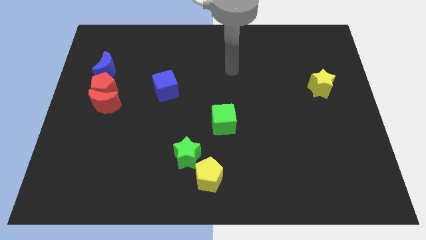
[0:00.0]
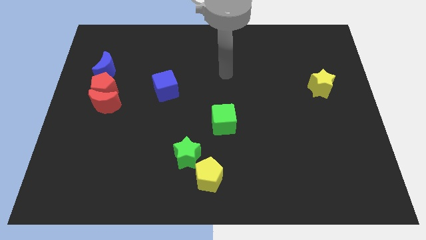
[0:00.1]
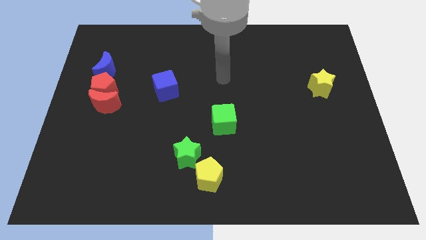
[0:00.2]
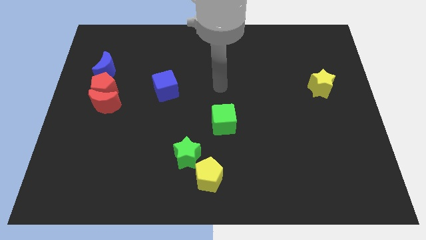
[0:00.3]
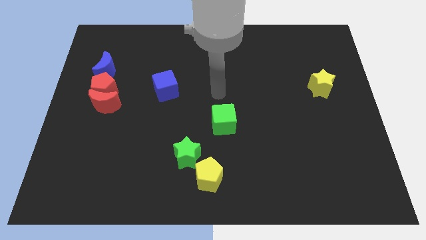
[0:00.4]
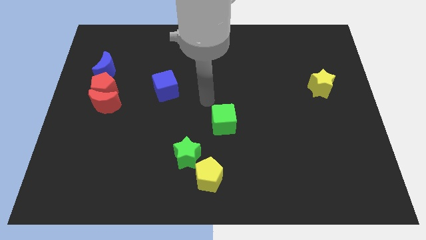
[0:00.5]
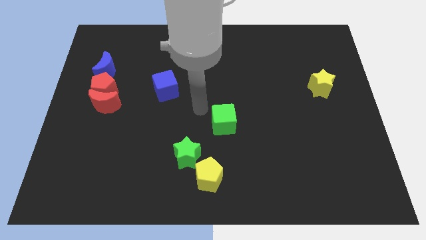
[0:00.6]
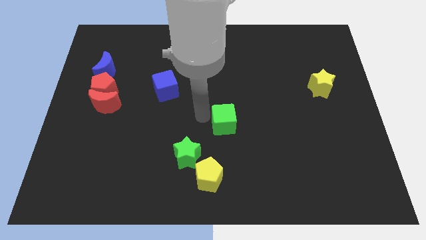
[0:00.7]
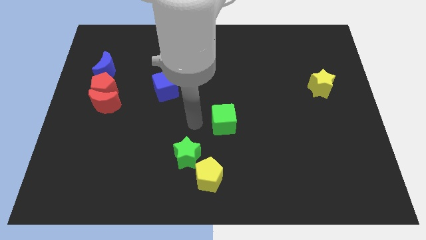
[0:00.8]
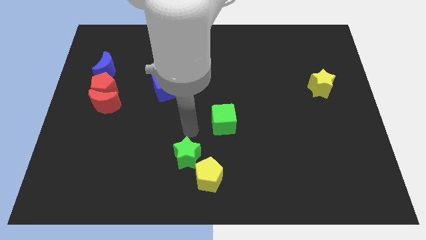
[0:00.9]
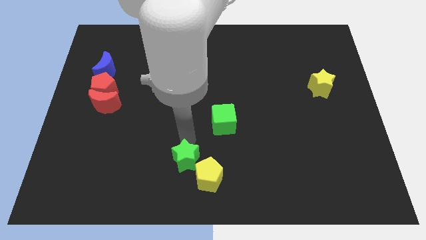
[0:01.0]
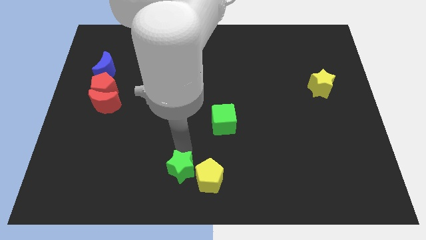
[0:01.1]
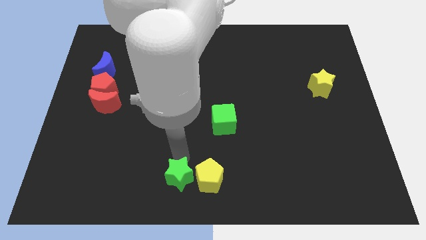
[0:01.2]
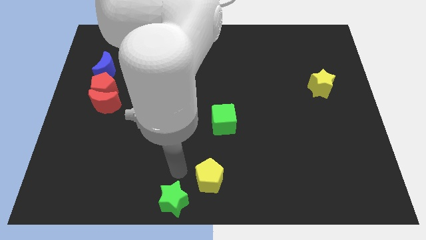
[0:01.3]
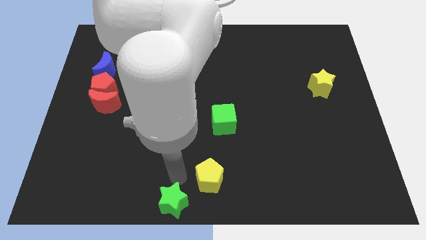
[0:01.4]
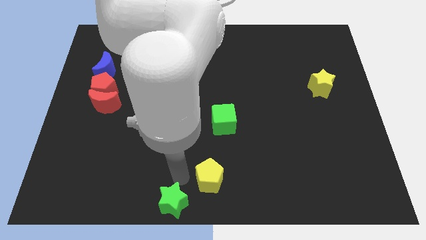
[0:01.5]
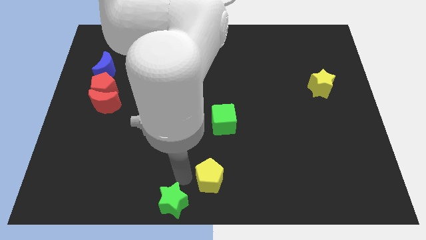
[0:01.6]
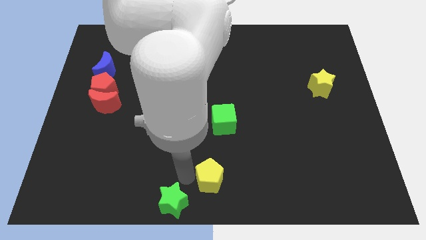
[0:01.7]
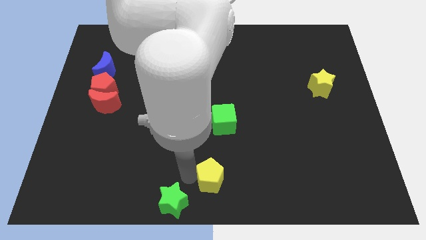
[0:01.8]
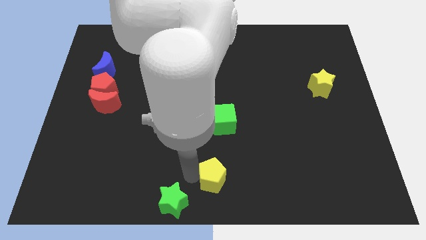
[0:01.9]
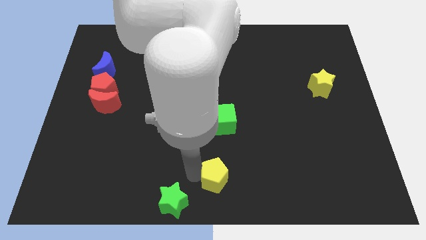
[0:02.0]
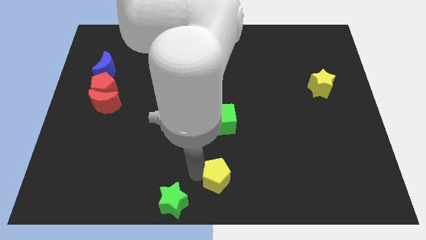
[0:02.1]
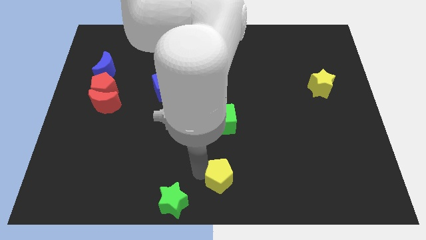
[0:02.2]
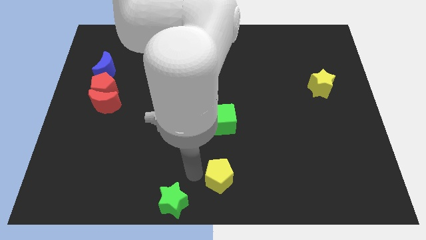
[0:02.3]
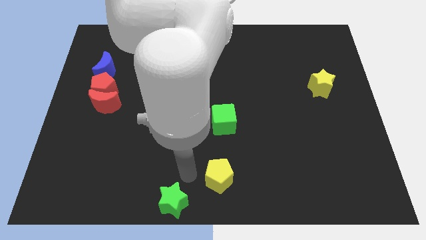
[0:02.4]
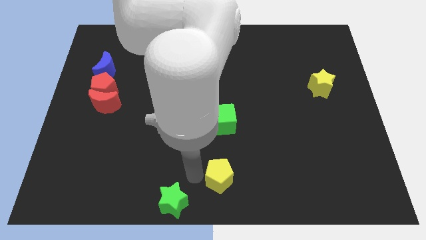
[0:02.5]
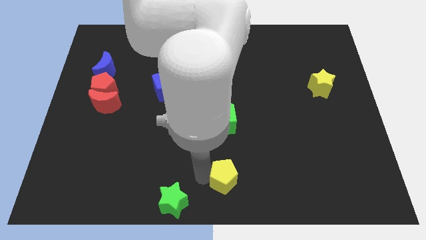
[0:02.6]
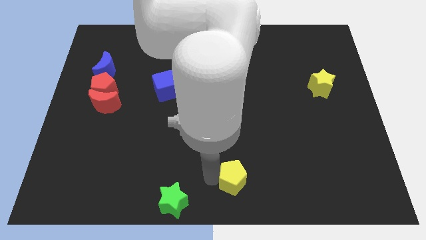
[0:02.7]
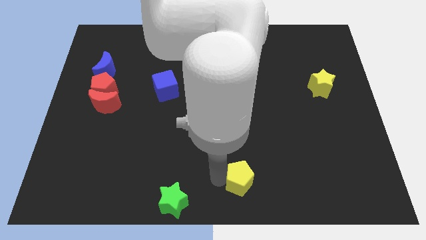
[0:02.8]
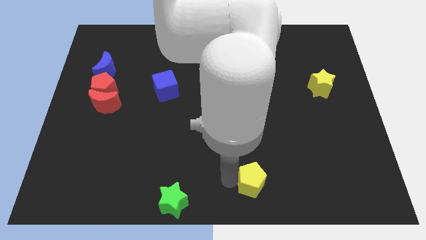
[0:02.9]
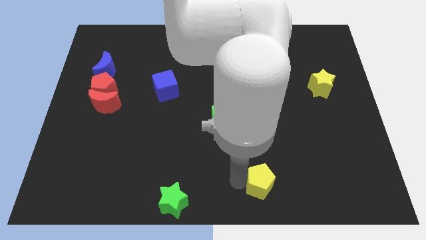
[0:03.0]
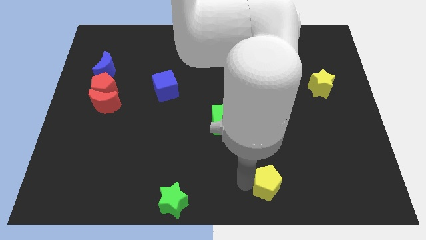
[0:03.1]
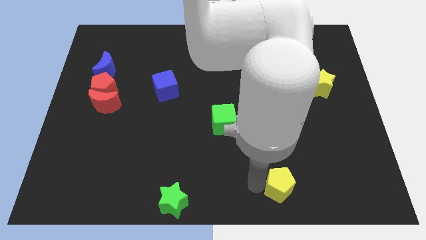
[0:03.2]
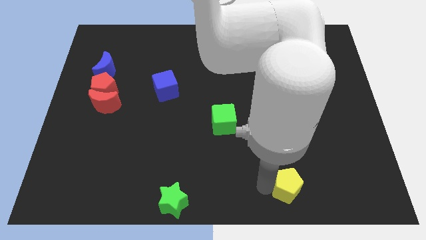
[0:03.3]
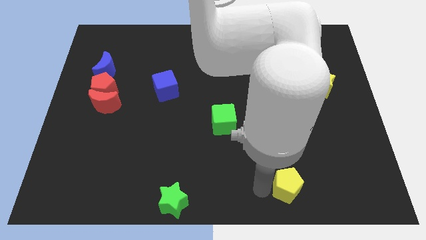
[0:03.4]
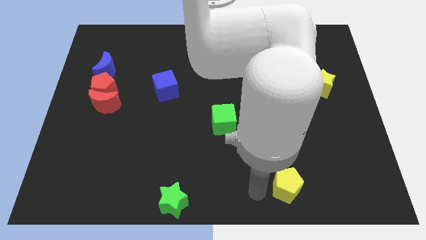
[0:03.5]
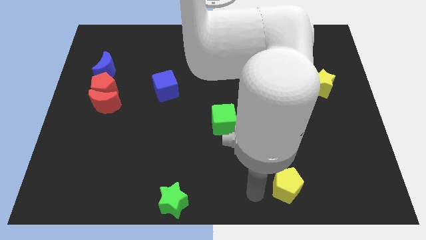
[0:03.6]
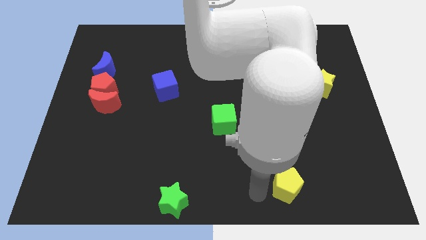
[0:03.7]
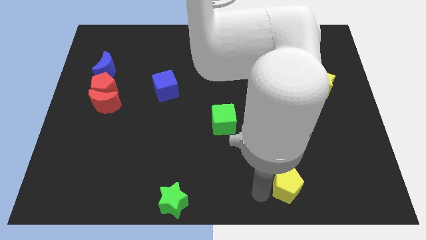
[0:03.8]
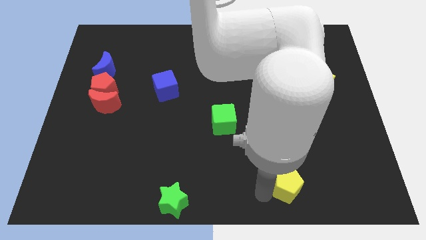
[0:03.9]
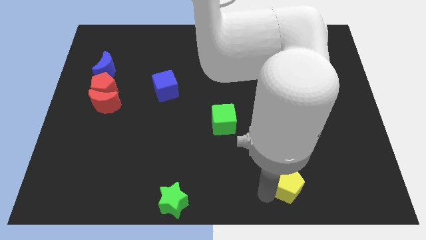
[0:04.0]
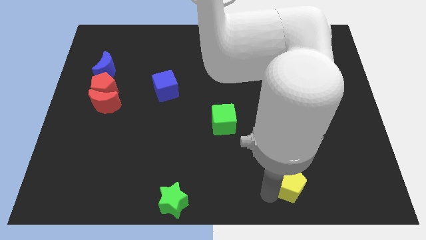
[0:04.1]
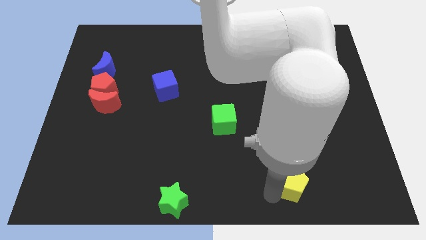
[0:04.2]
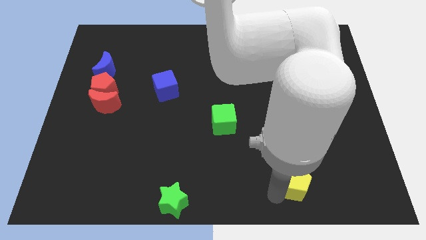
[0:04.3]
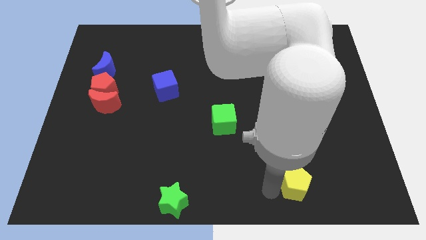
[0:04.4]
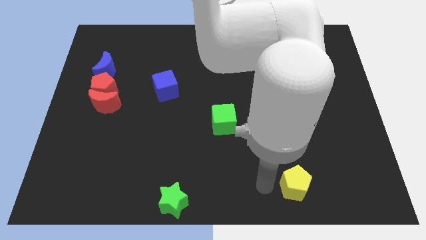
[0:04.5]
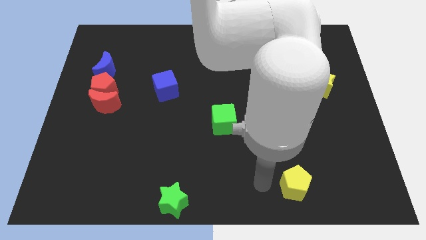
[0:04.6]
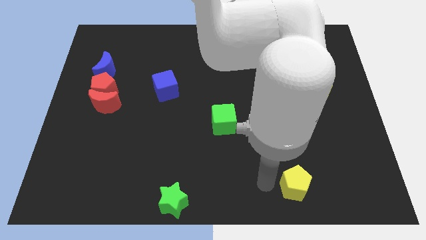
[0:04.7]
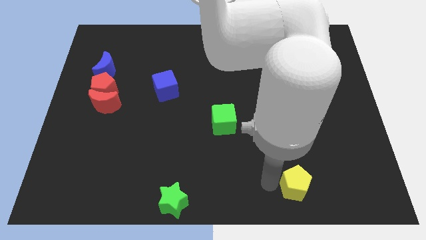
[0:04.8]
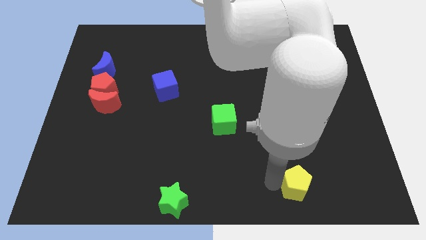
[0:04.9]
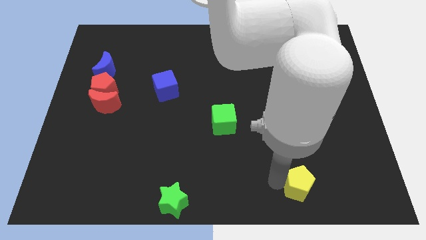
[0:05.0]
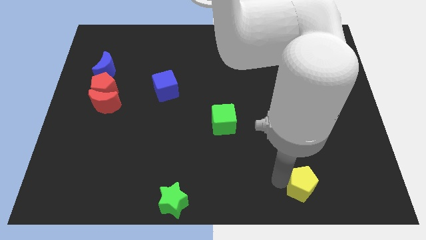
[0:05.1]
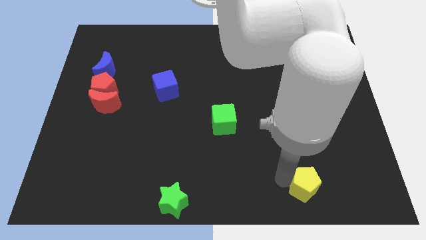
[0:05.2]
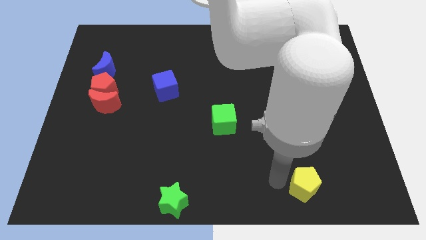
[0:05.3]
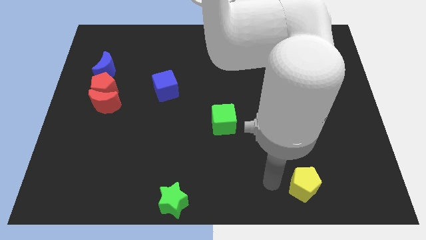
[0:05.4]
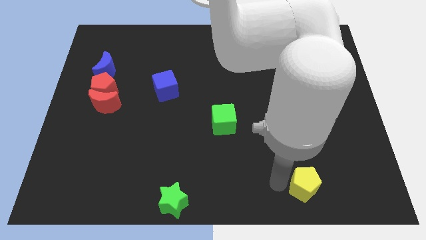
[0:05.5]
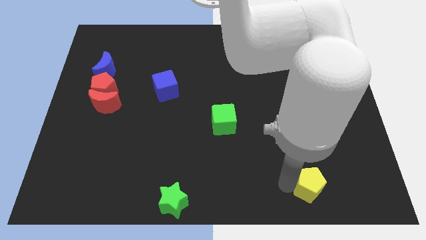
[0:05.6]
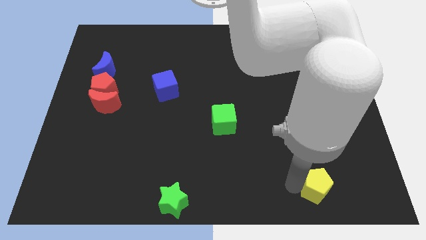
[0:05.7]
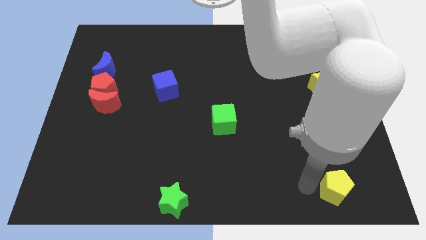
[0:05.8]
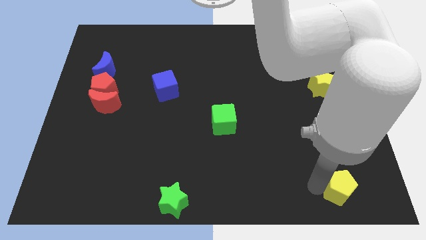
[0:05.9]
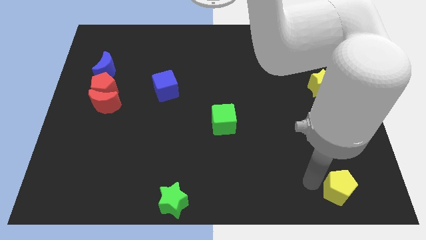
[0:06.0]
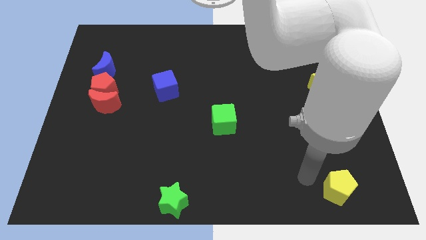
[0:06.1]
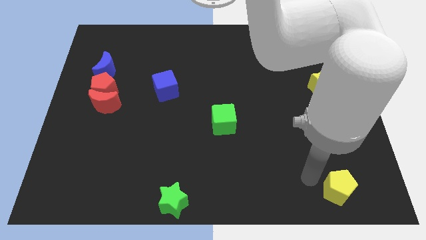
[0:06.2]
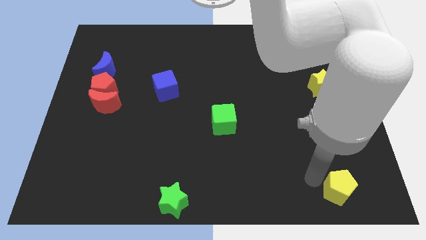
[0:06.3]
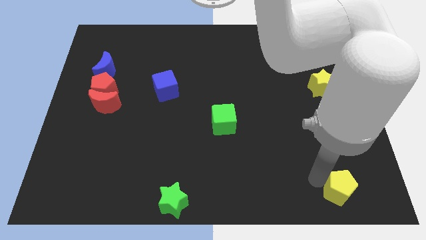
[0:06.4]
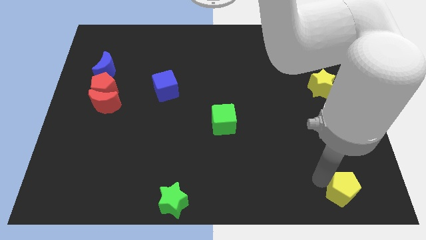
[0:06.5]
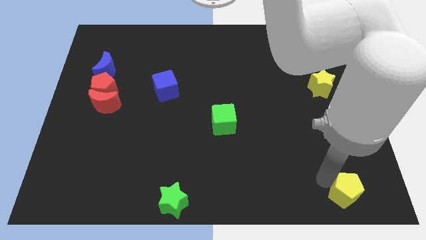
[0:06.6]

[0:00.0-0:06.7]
move the yellow pentagon to the bottom right of the board
